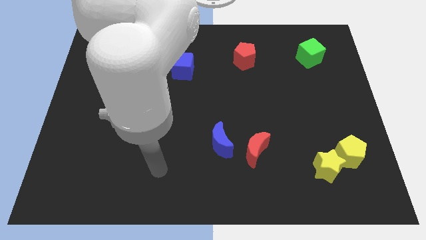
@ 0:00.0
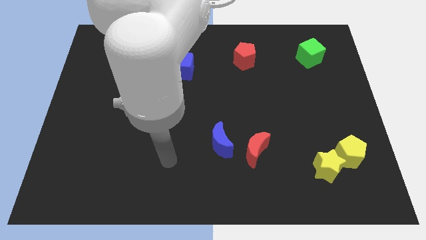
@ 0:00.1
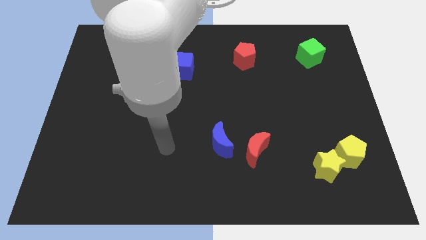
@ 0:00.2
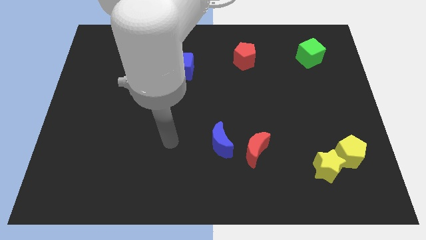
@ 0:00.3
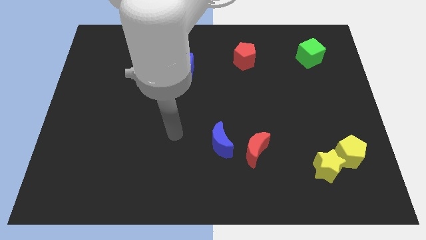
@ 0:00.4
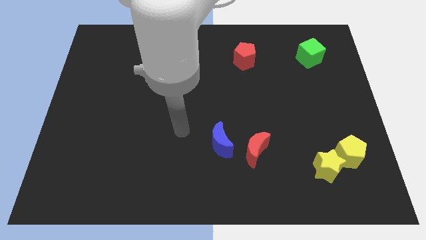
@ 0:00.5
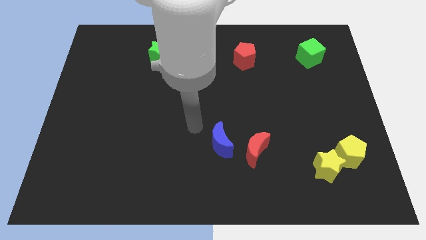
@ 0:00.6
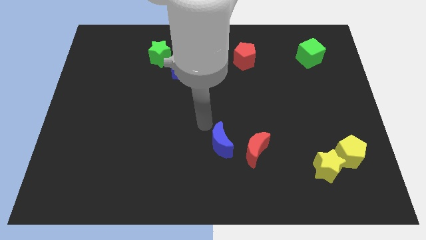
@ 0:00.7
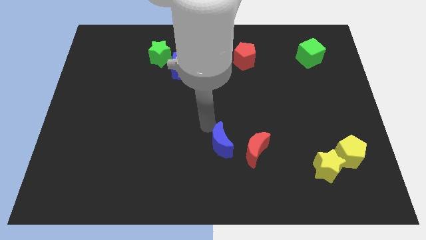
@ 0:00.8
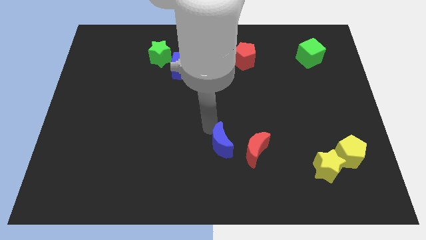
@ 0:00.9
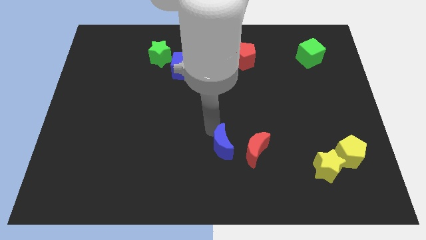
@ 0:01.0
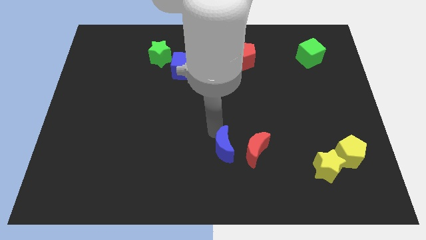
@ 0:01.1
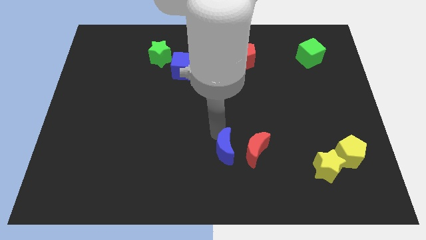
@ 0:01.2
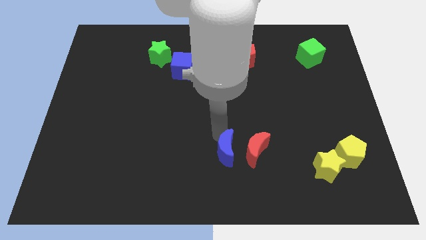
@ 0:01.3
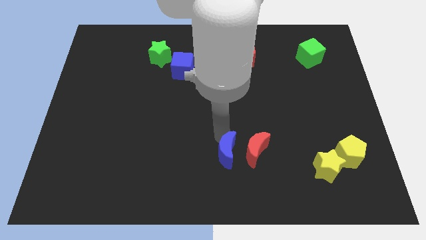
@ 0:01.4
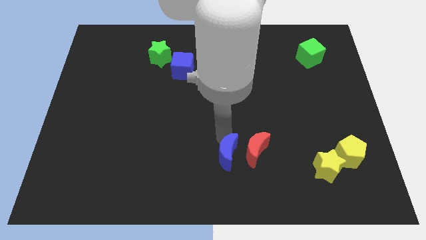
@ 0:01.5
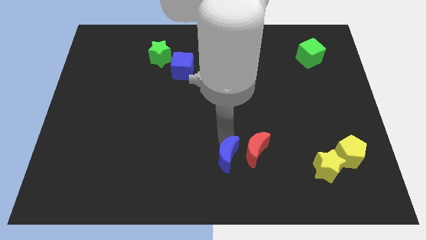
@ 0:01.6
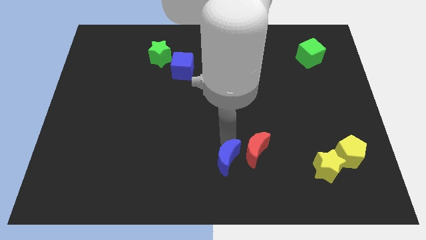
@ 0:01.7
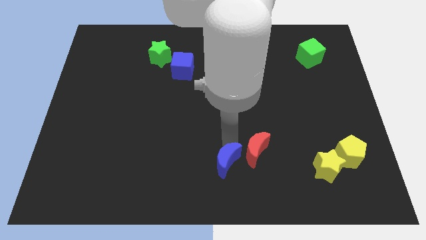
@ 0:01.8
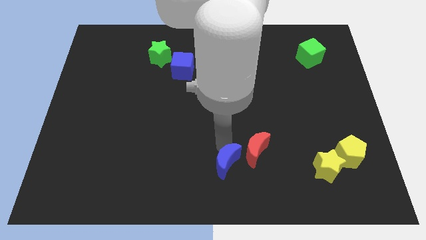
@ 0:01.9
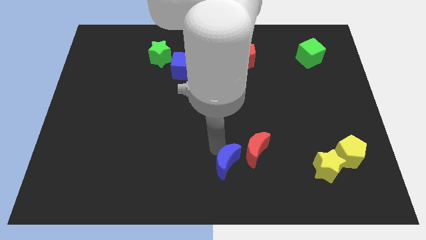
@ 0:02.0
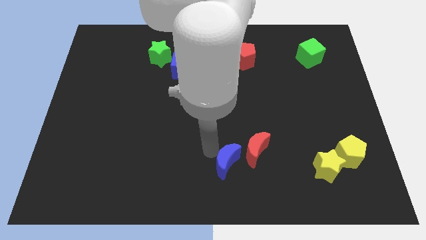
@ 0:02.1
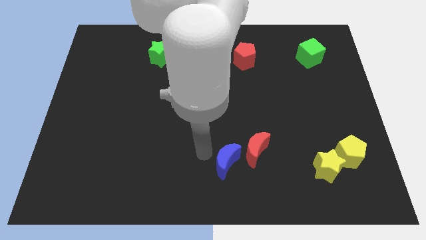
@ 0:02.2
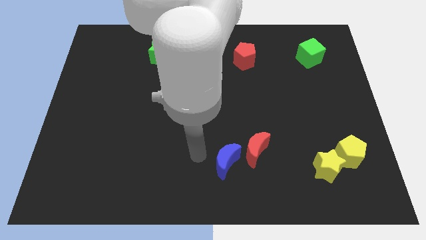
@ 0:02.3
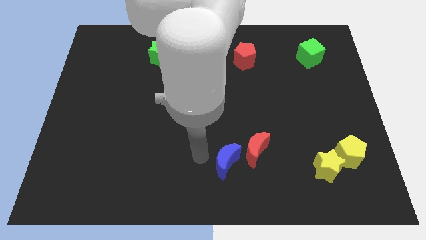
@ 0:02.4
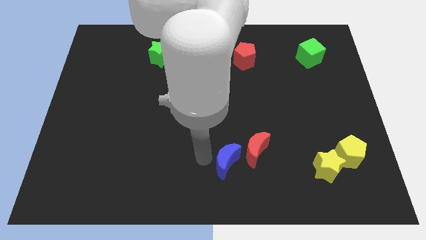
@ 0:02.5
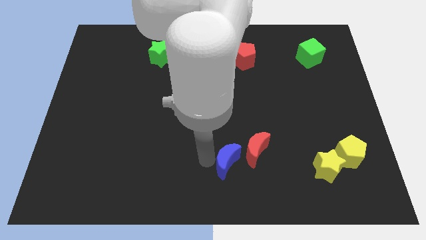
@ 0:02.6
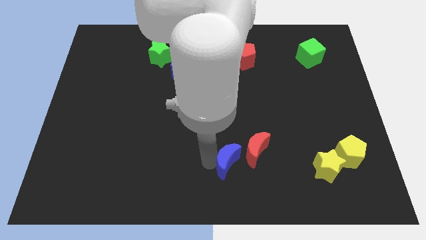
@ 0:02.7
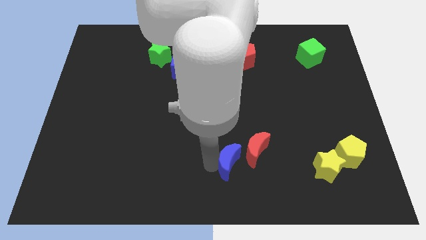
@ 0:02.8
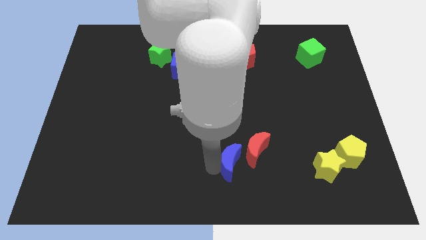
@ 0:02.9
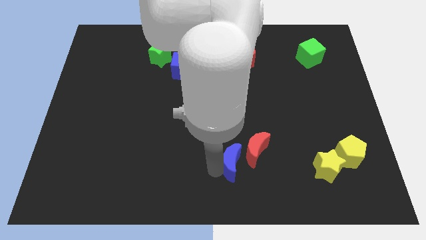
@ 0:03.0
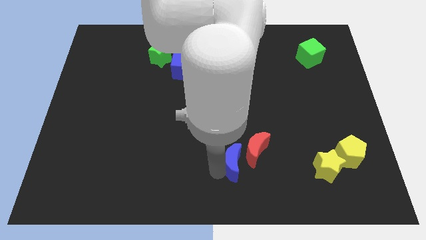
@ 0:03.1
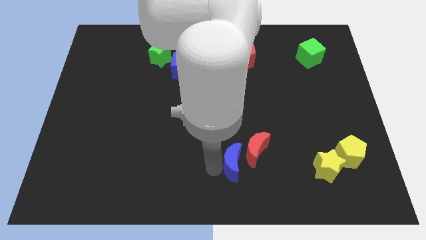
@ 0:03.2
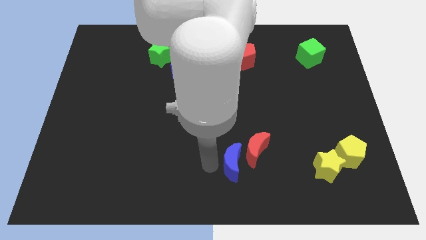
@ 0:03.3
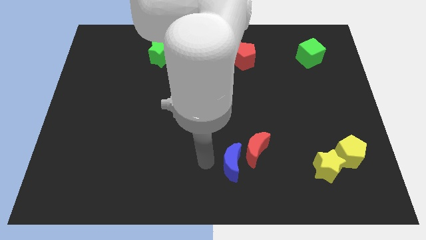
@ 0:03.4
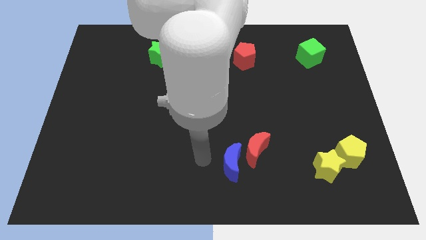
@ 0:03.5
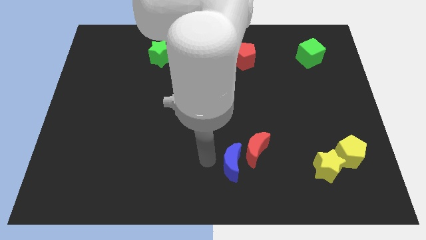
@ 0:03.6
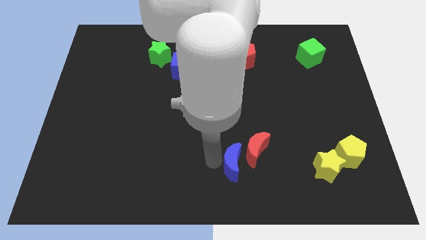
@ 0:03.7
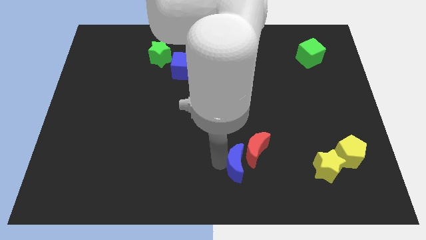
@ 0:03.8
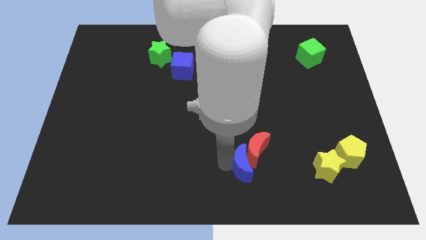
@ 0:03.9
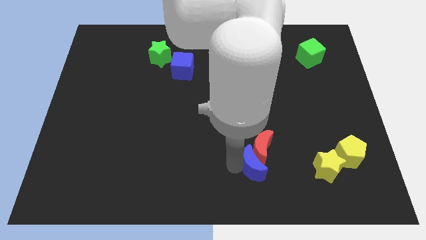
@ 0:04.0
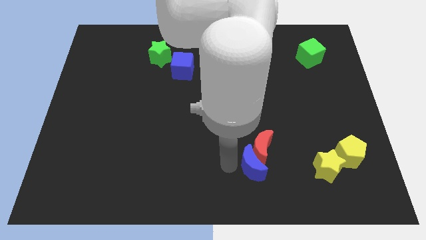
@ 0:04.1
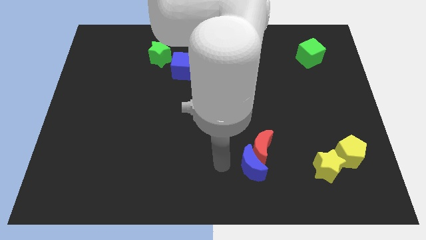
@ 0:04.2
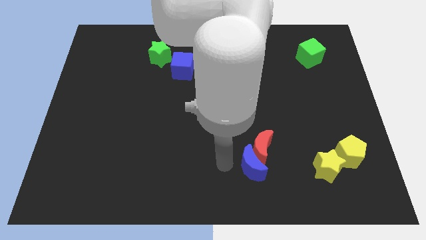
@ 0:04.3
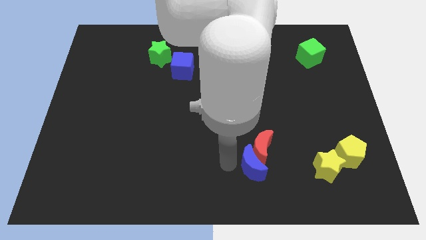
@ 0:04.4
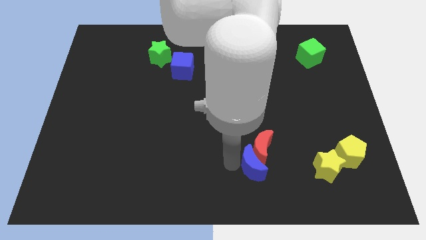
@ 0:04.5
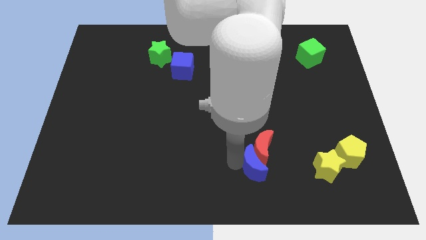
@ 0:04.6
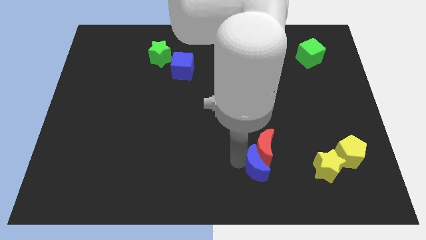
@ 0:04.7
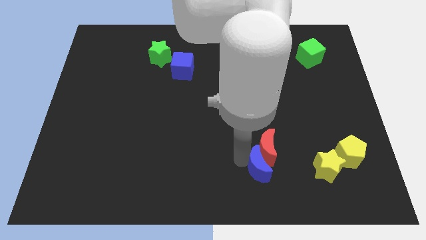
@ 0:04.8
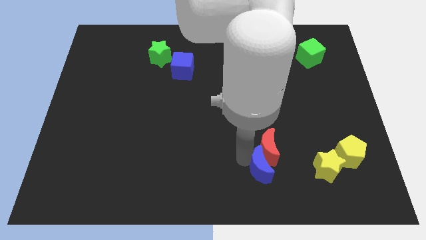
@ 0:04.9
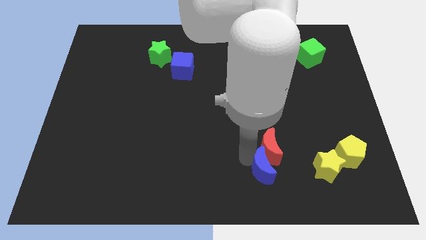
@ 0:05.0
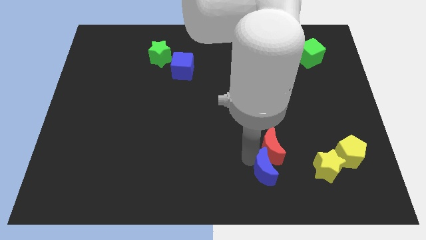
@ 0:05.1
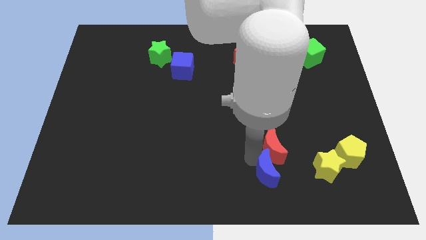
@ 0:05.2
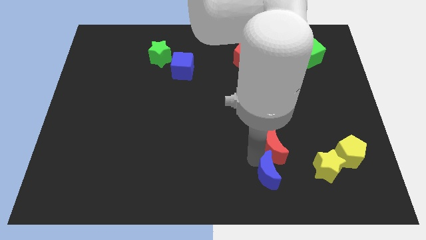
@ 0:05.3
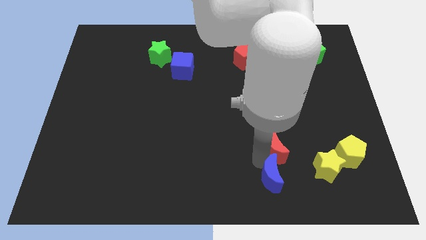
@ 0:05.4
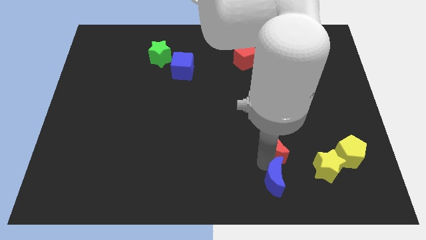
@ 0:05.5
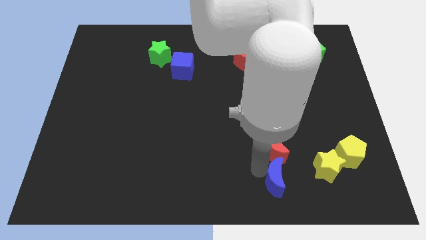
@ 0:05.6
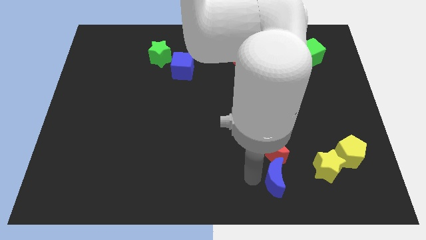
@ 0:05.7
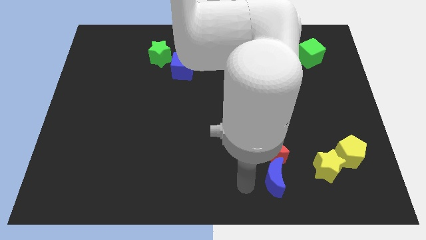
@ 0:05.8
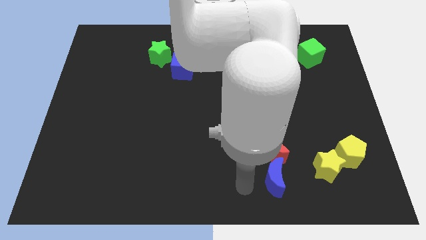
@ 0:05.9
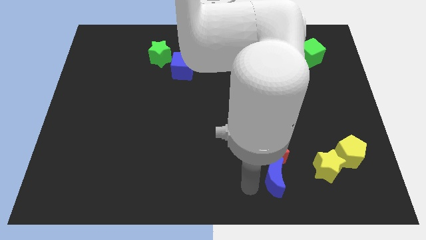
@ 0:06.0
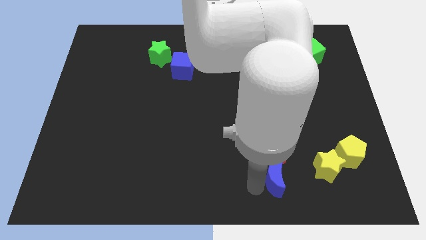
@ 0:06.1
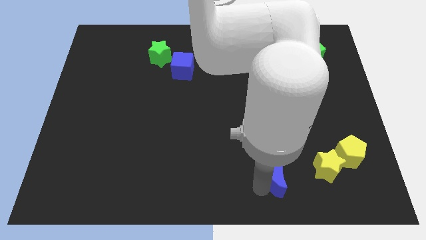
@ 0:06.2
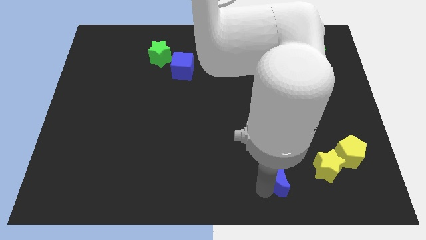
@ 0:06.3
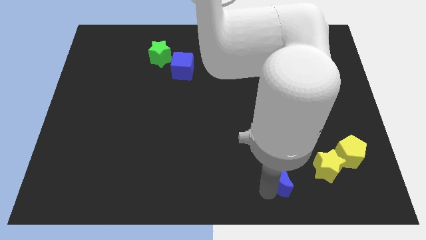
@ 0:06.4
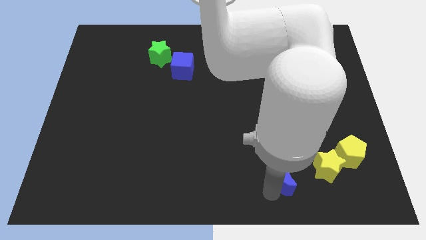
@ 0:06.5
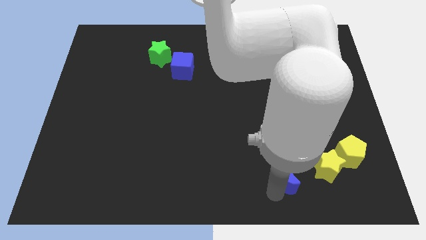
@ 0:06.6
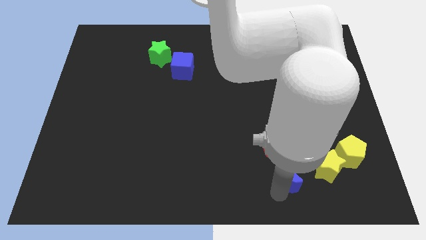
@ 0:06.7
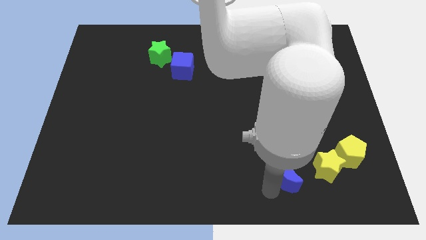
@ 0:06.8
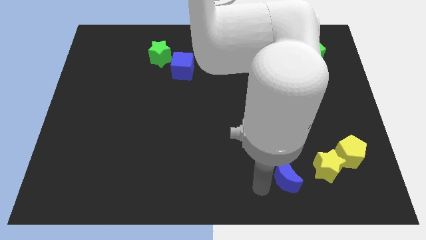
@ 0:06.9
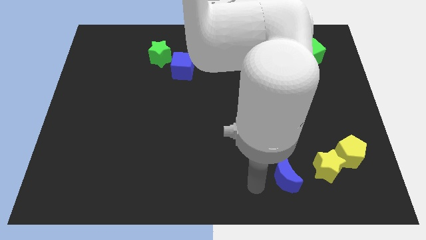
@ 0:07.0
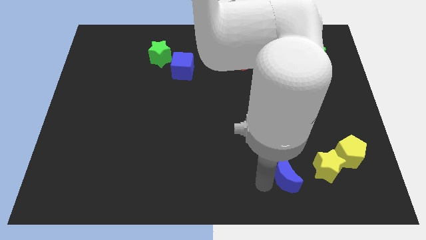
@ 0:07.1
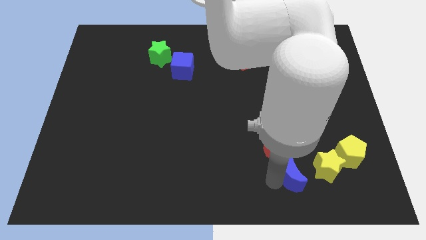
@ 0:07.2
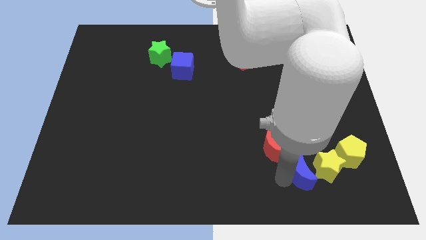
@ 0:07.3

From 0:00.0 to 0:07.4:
slide the blue moon towards the yellow star
